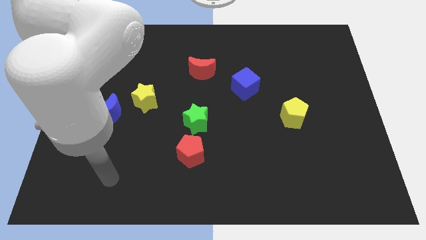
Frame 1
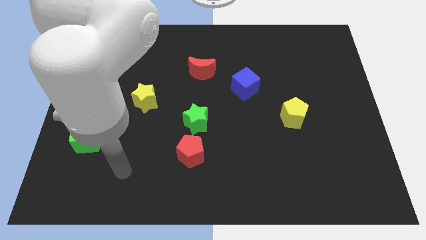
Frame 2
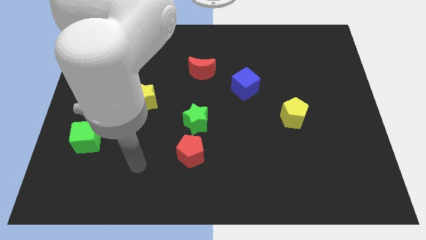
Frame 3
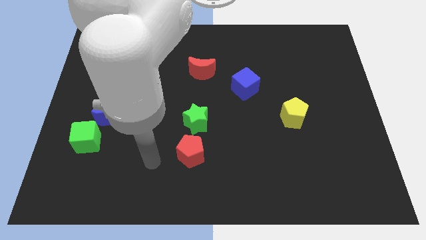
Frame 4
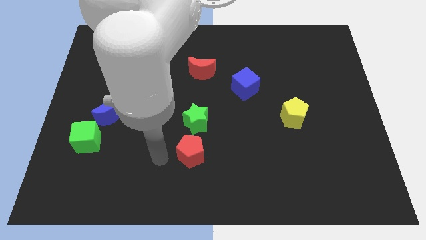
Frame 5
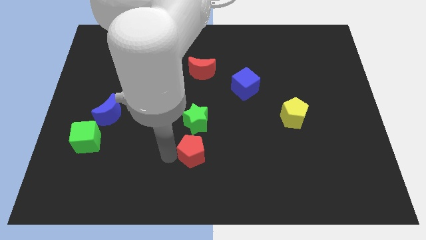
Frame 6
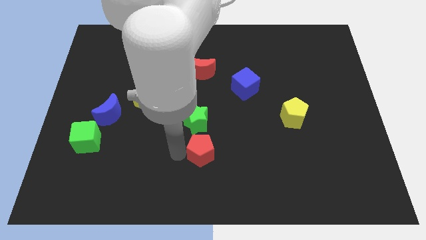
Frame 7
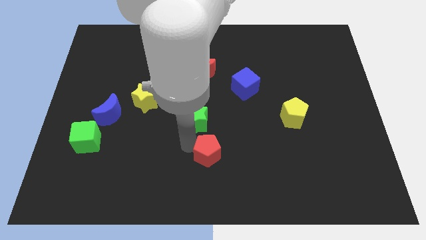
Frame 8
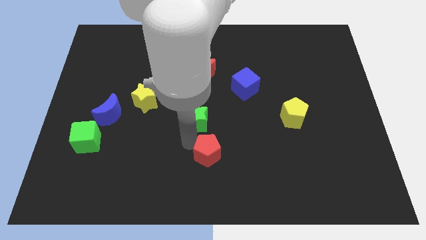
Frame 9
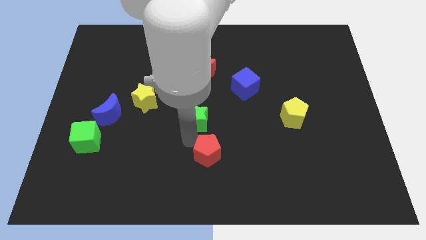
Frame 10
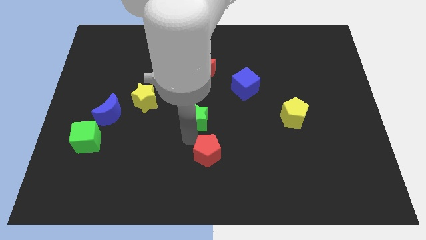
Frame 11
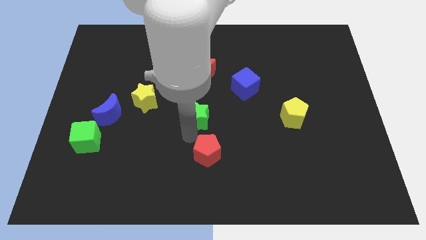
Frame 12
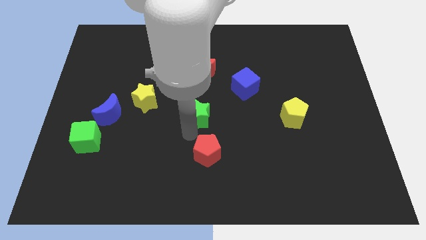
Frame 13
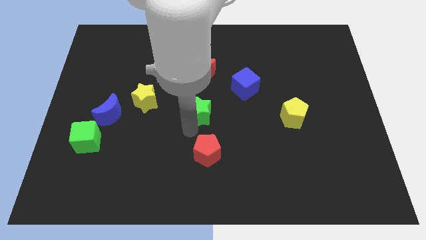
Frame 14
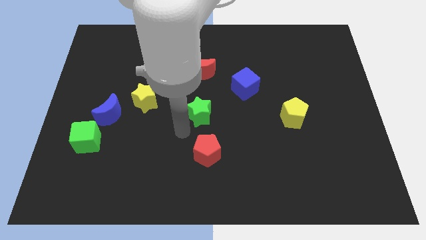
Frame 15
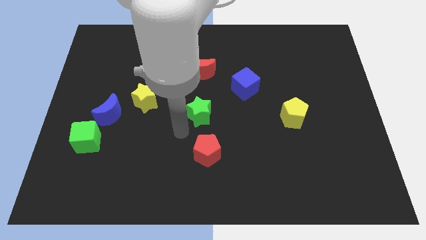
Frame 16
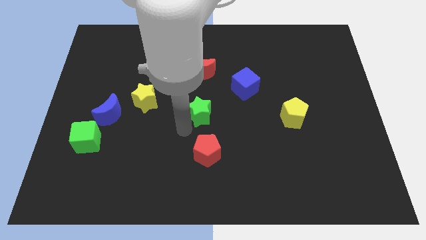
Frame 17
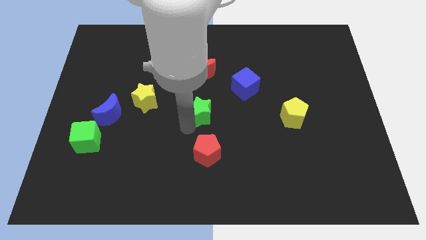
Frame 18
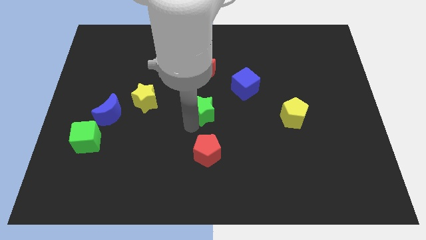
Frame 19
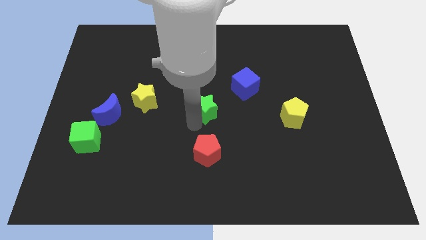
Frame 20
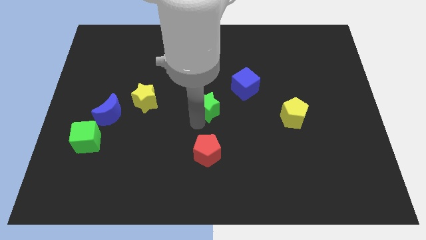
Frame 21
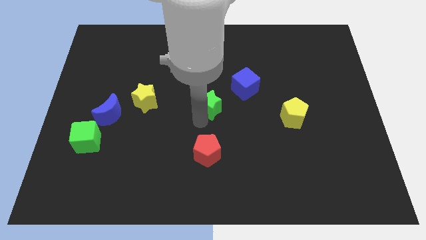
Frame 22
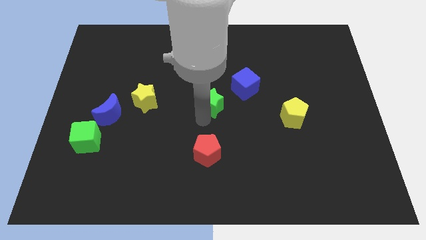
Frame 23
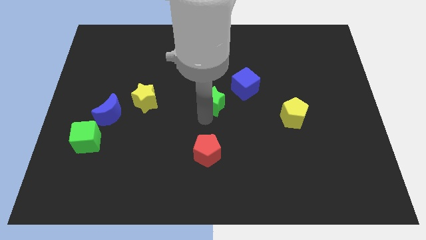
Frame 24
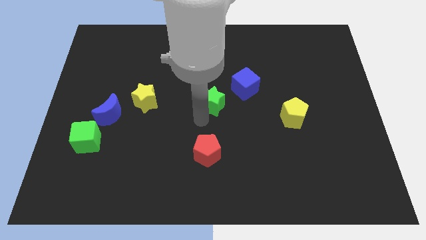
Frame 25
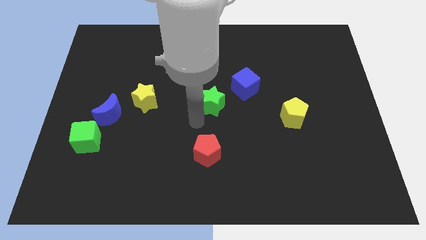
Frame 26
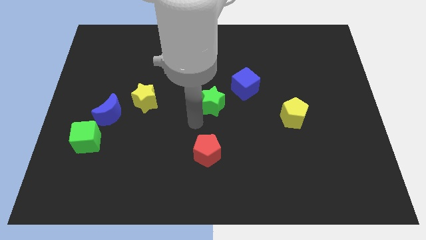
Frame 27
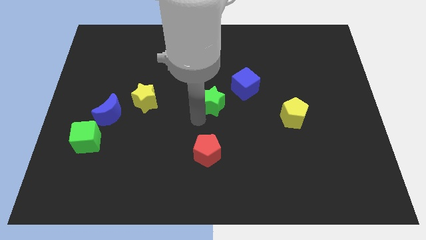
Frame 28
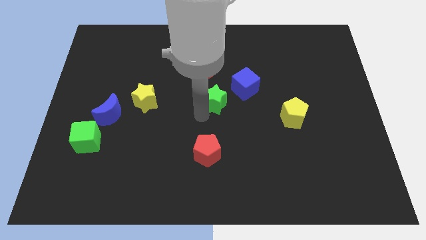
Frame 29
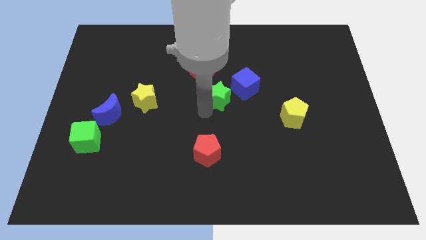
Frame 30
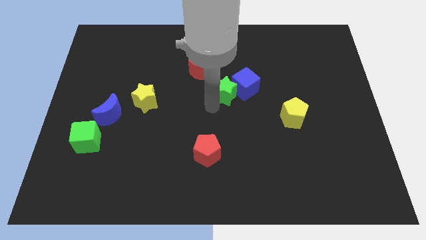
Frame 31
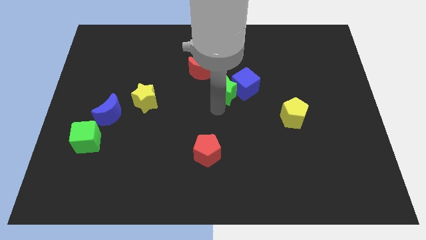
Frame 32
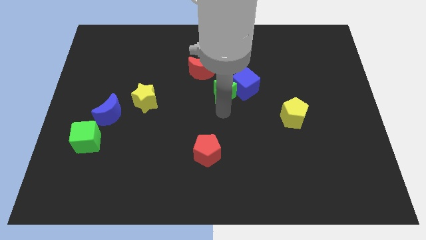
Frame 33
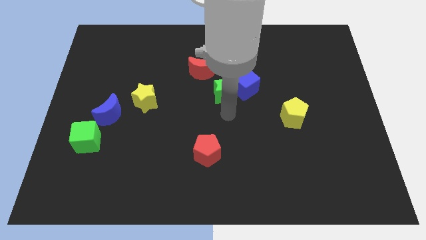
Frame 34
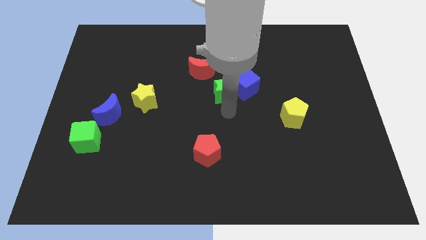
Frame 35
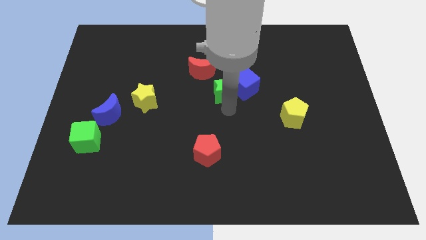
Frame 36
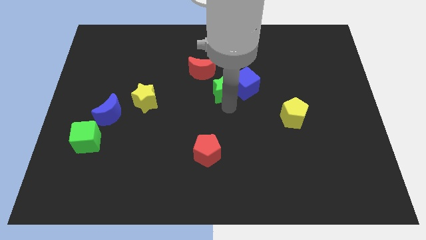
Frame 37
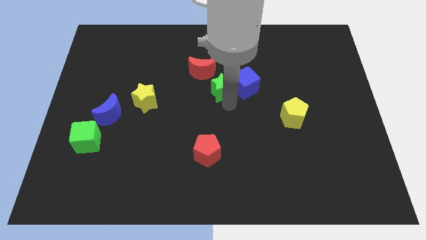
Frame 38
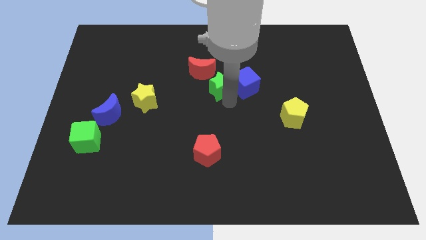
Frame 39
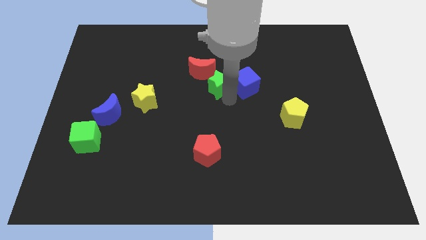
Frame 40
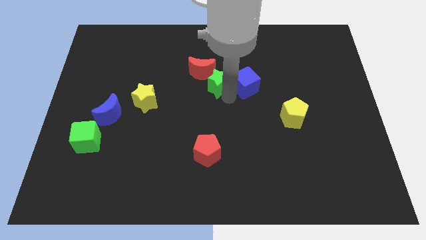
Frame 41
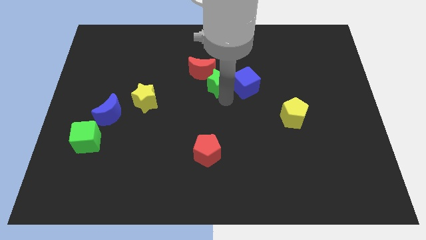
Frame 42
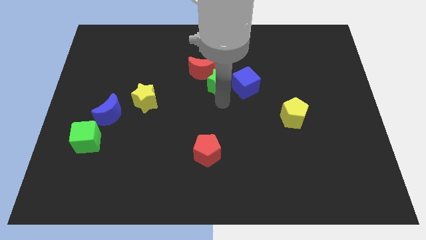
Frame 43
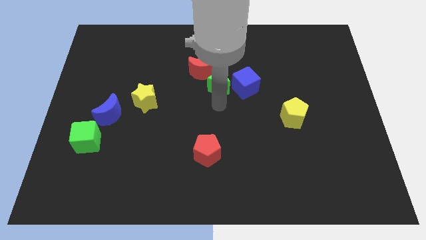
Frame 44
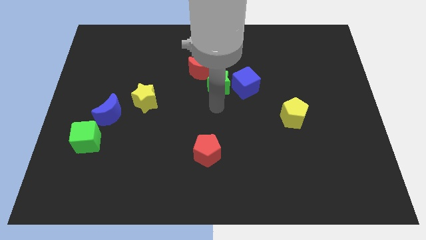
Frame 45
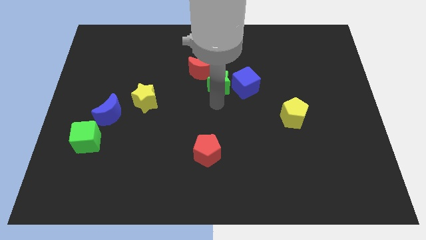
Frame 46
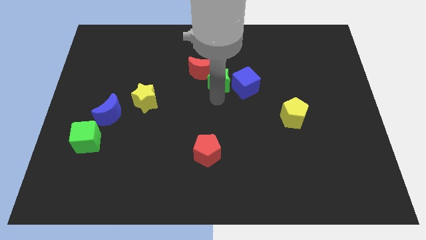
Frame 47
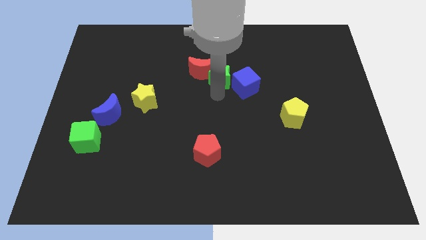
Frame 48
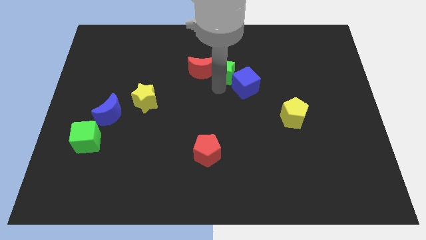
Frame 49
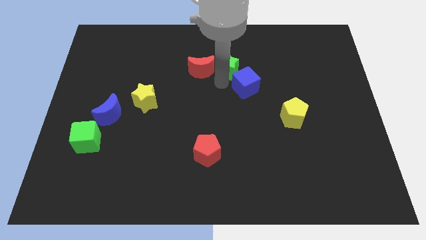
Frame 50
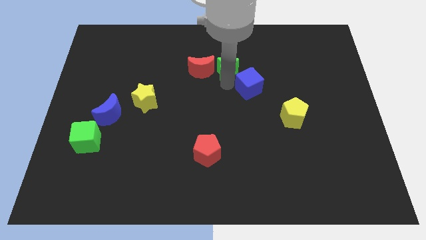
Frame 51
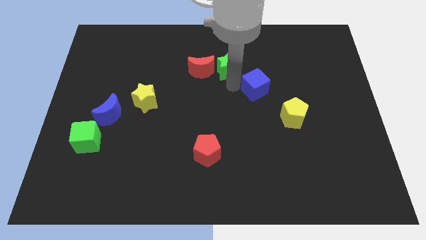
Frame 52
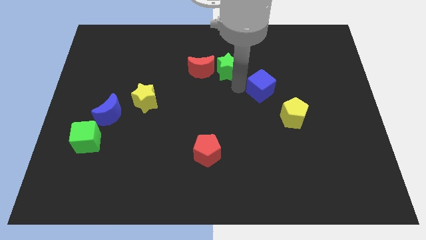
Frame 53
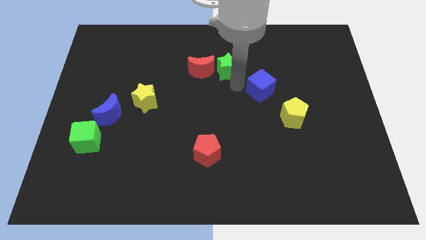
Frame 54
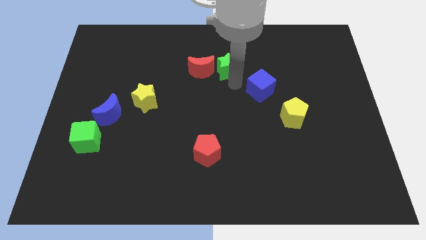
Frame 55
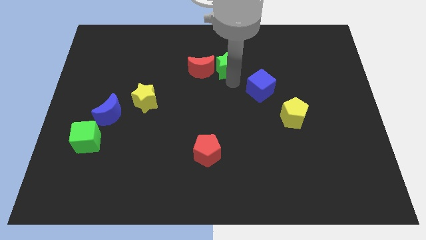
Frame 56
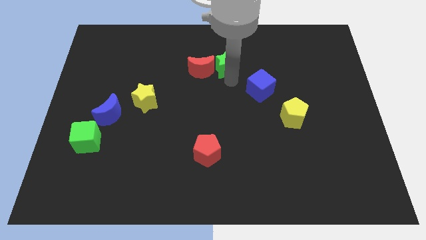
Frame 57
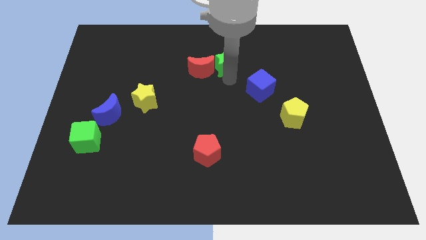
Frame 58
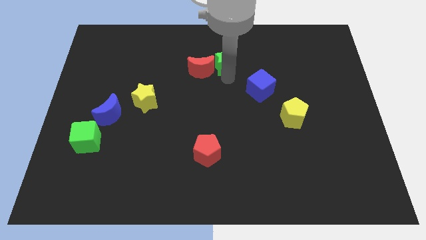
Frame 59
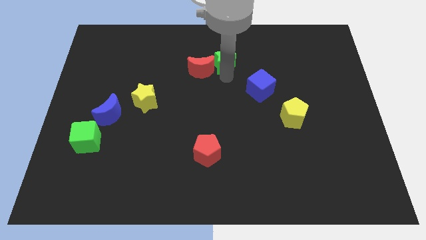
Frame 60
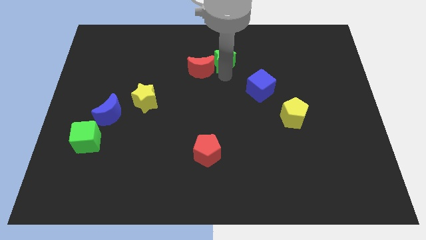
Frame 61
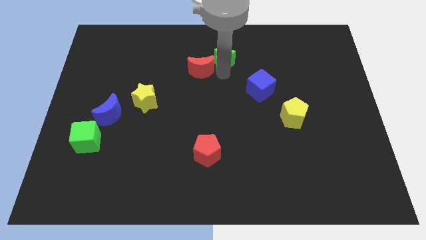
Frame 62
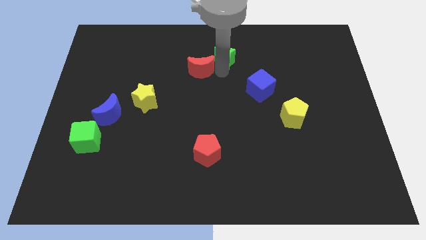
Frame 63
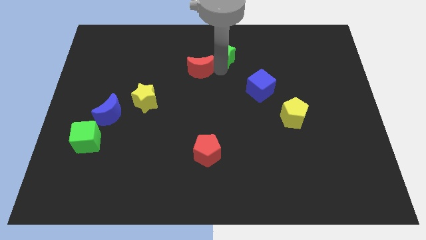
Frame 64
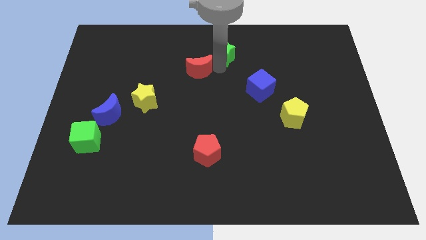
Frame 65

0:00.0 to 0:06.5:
push the green star to the top

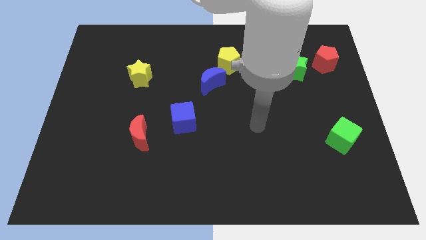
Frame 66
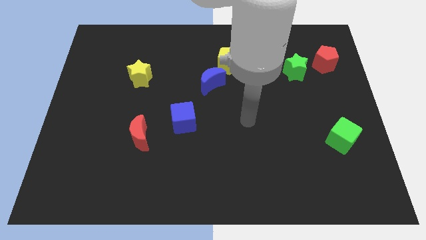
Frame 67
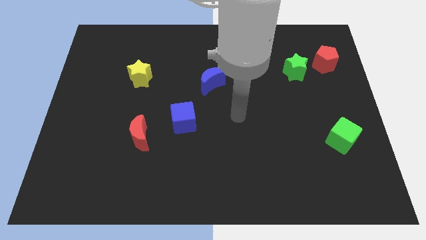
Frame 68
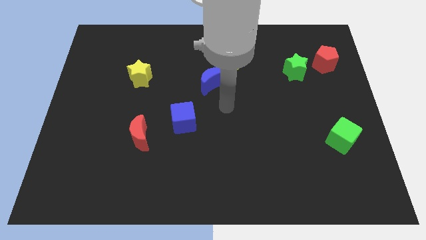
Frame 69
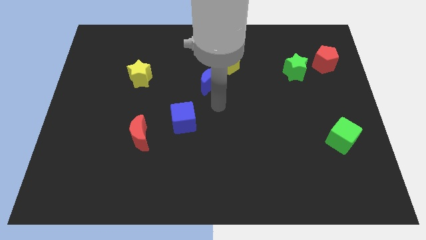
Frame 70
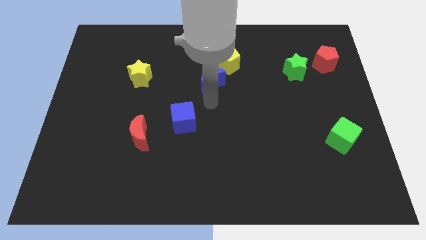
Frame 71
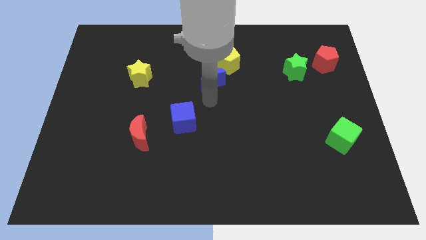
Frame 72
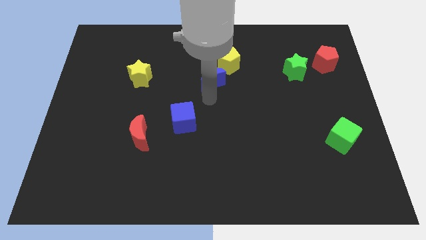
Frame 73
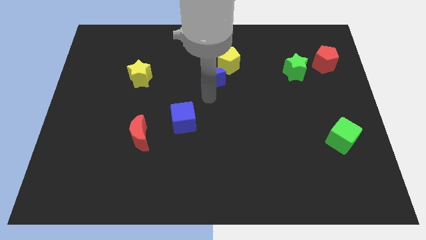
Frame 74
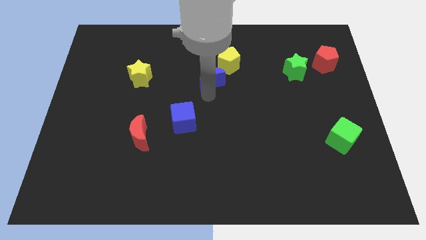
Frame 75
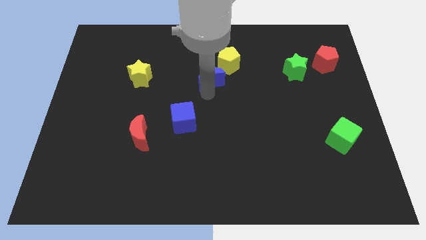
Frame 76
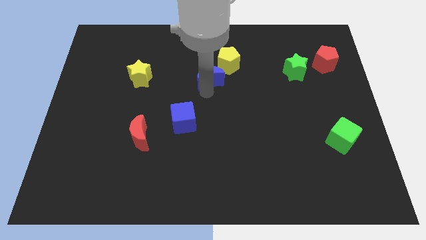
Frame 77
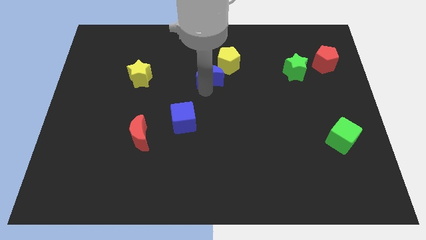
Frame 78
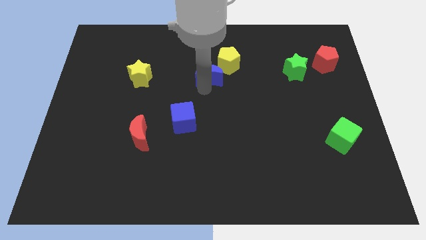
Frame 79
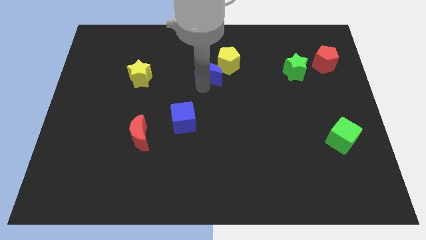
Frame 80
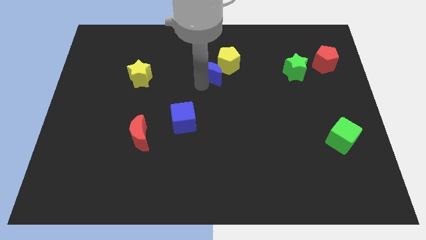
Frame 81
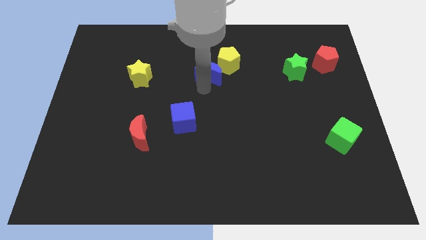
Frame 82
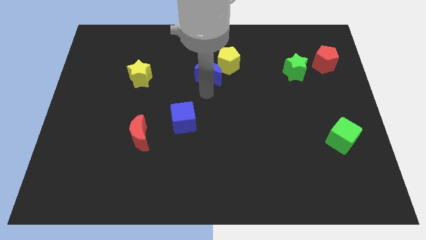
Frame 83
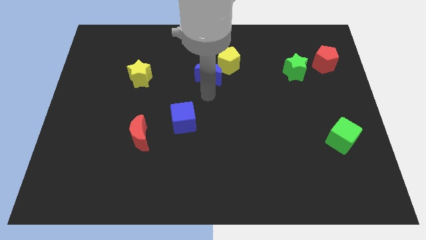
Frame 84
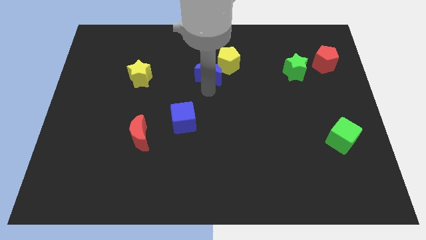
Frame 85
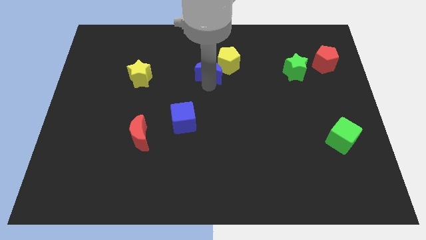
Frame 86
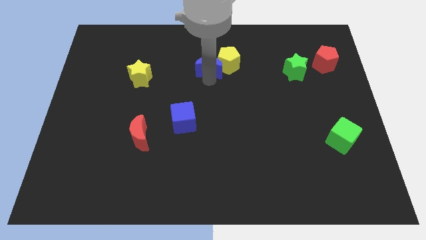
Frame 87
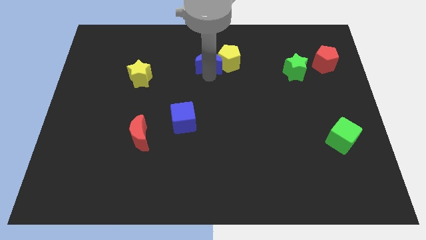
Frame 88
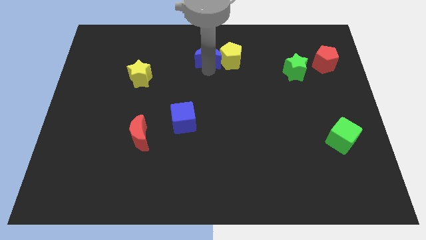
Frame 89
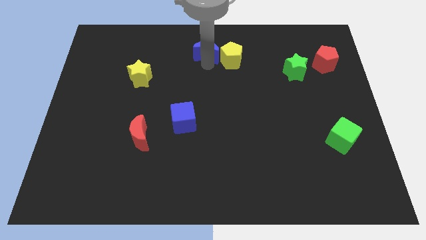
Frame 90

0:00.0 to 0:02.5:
push the blue moon to the top
